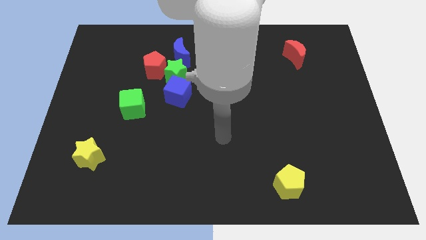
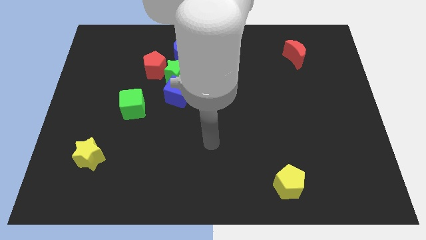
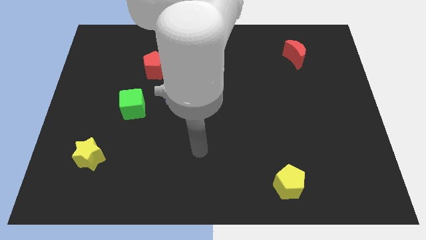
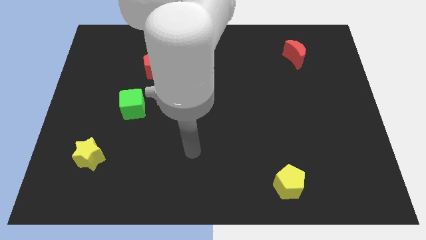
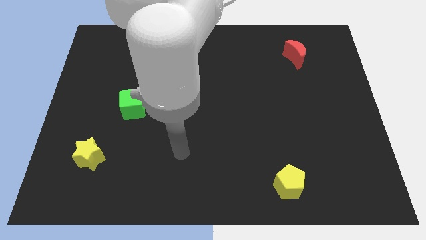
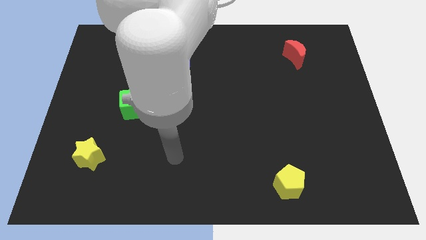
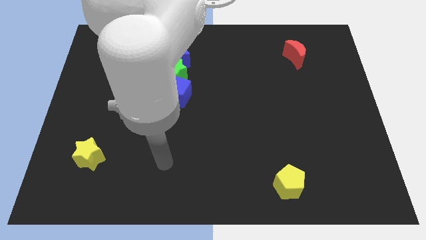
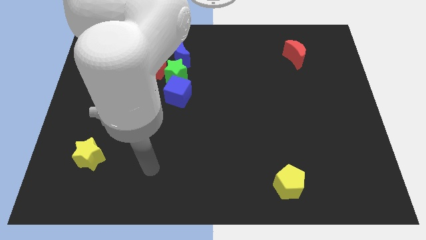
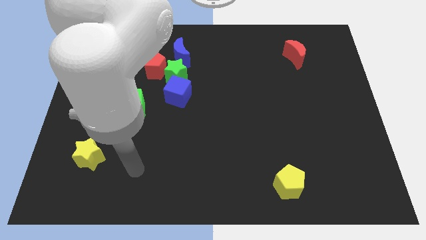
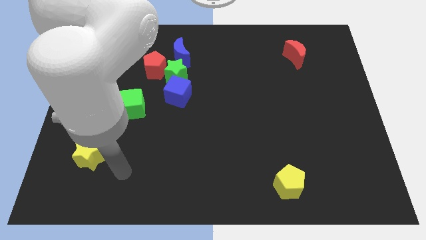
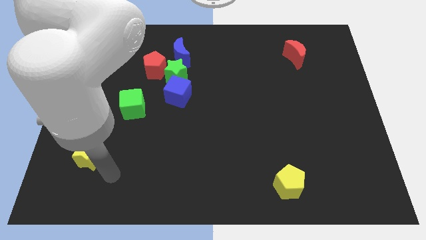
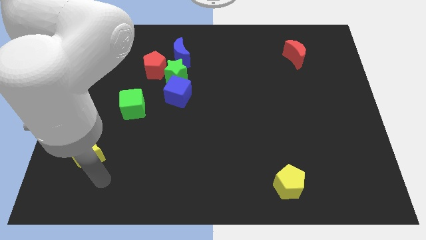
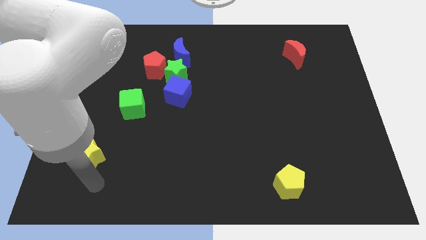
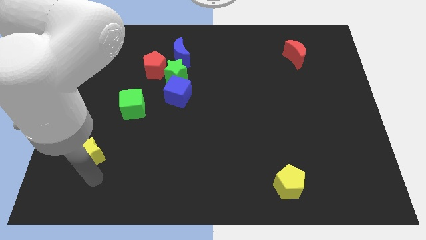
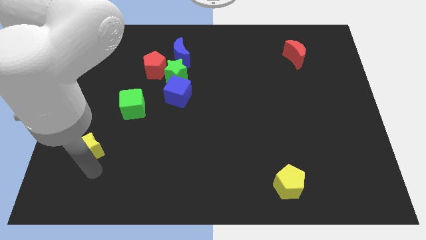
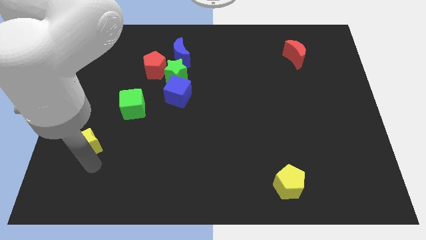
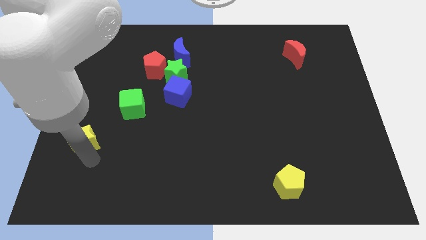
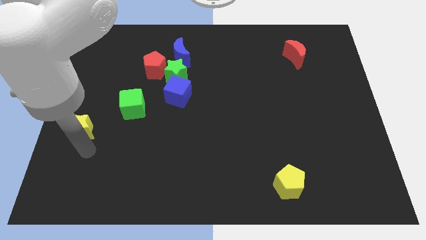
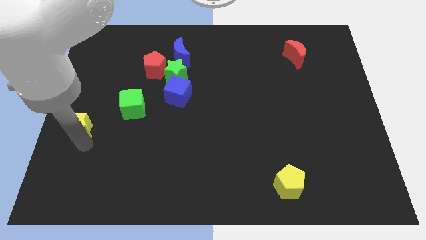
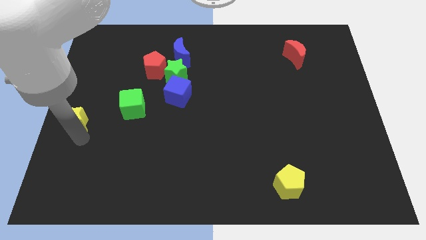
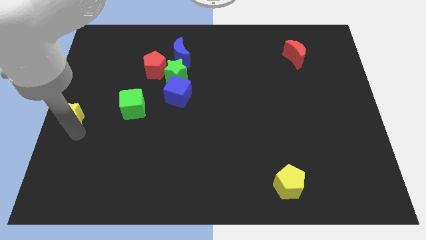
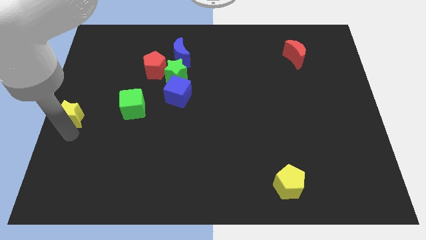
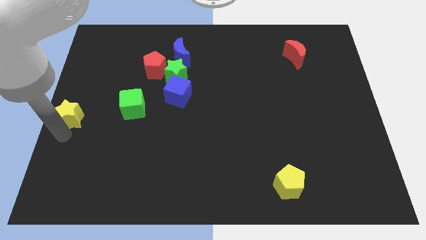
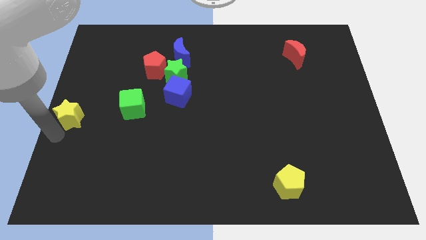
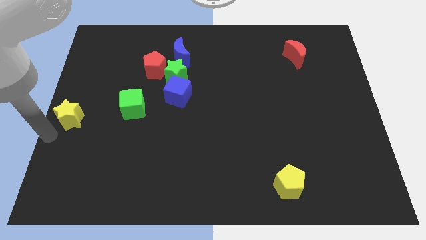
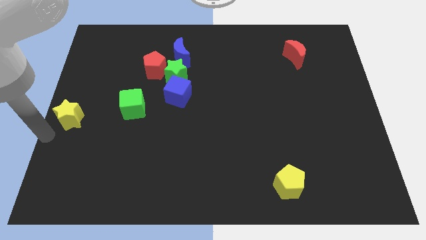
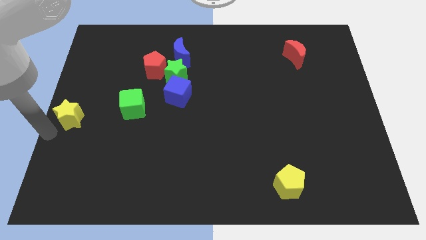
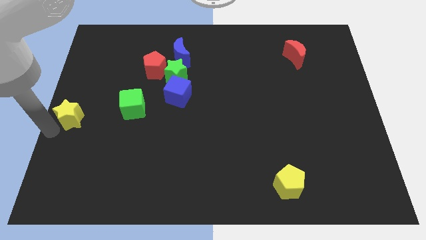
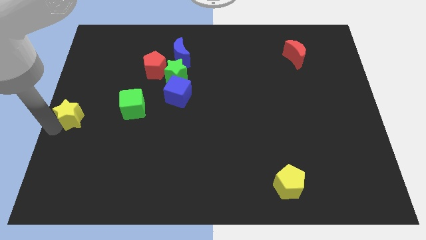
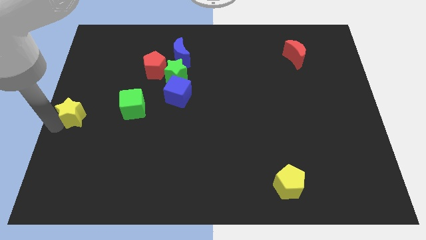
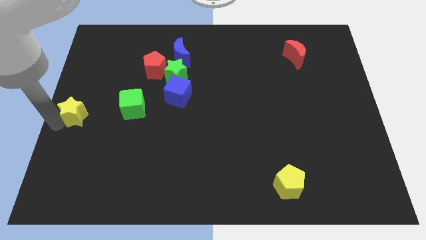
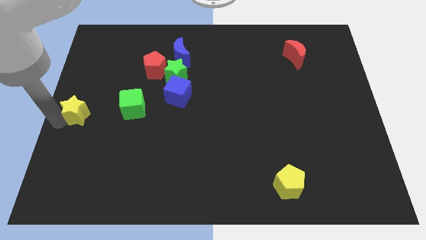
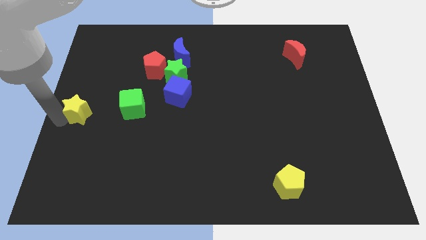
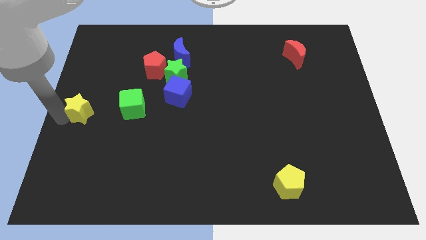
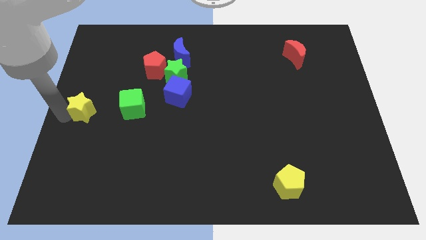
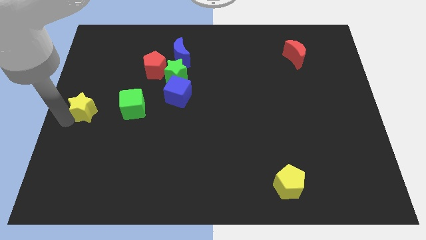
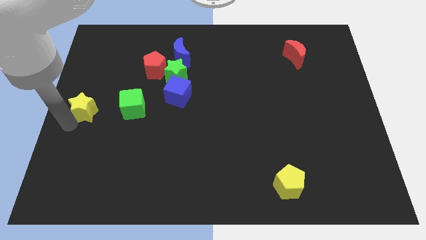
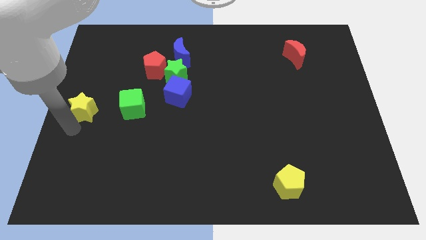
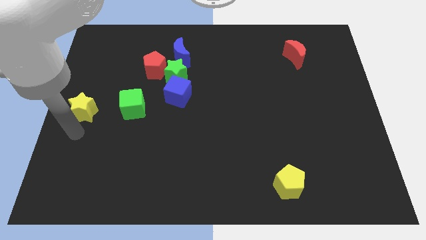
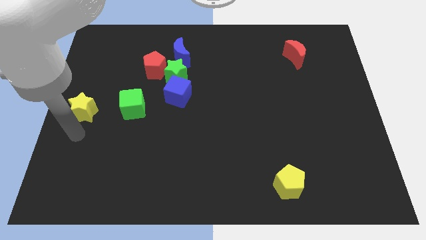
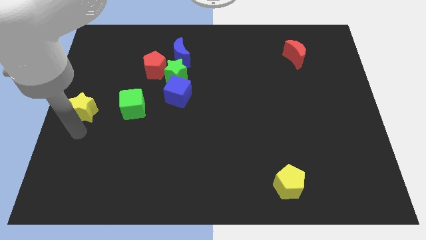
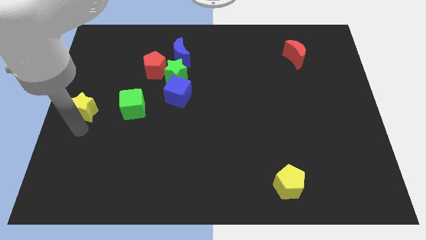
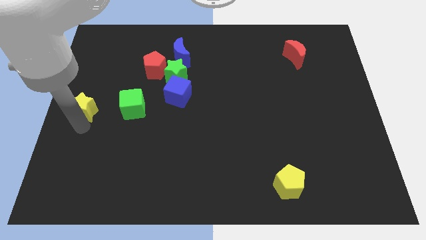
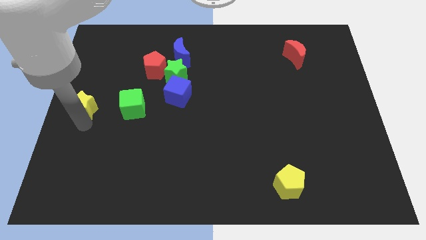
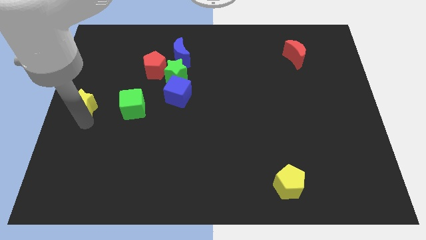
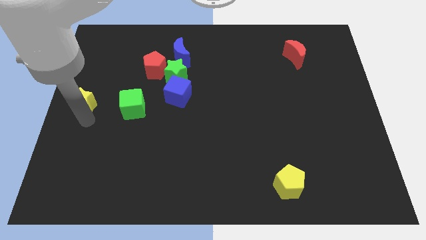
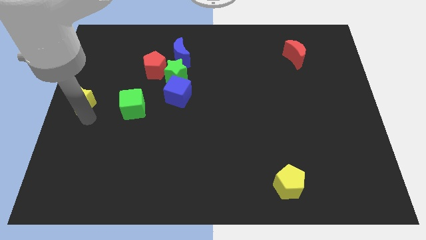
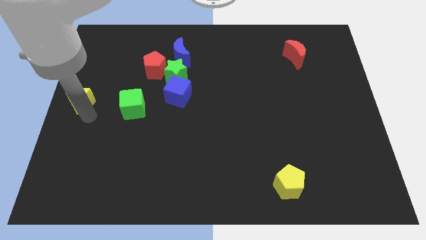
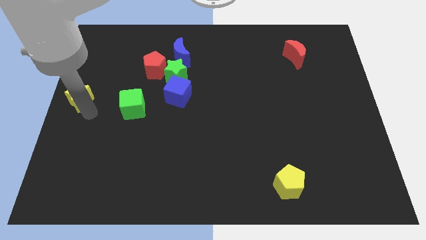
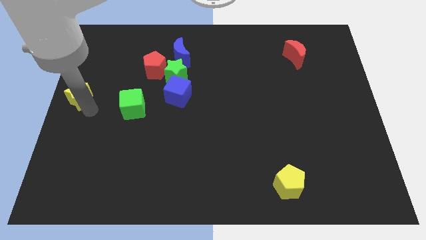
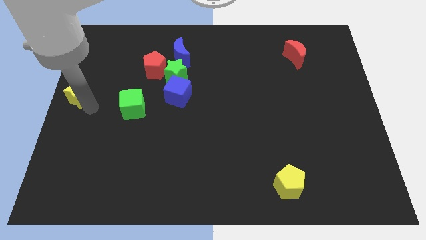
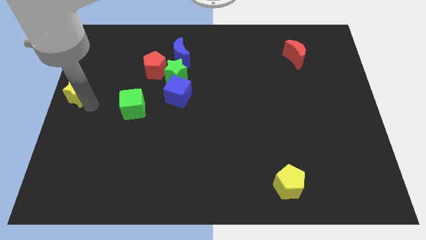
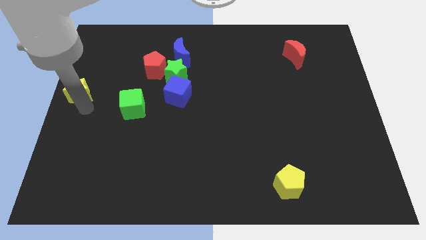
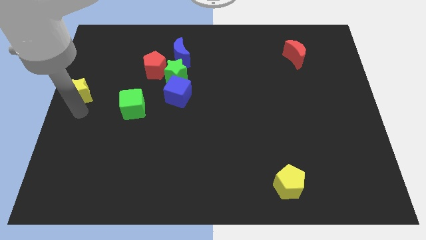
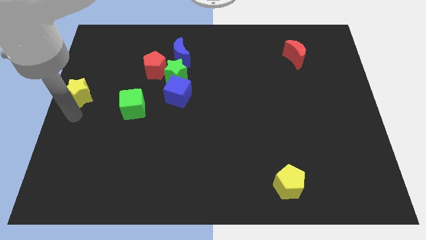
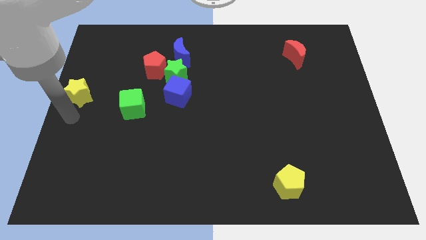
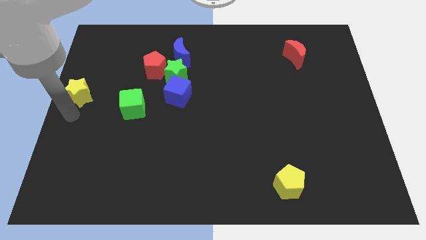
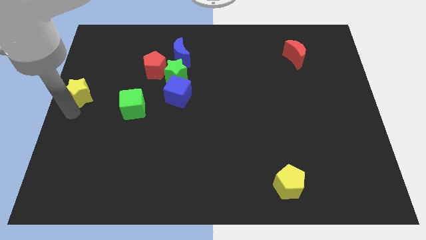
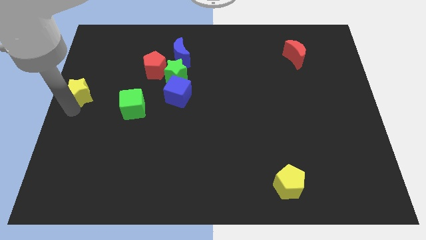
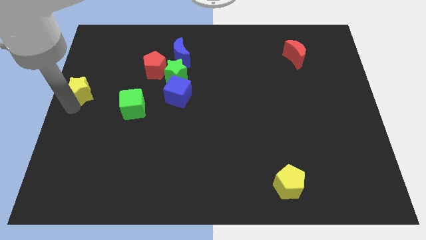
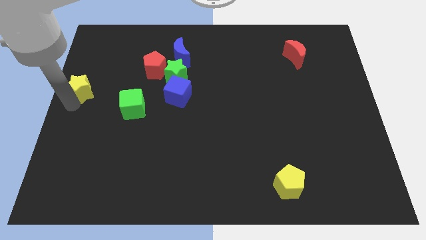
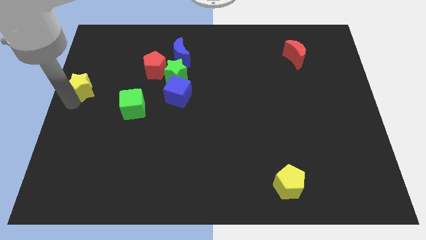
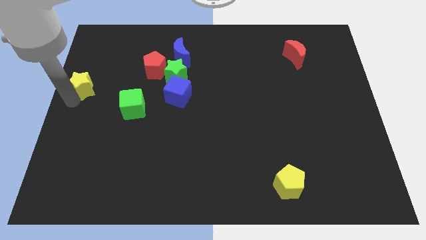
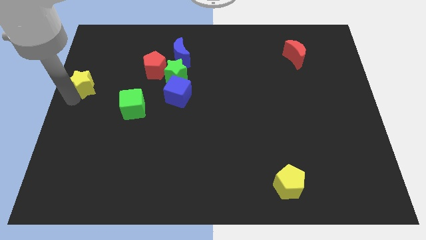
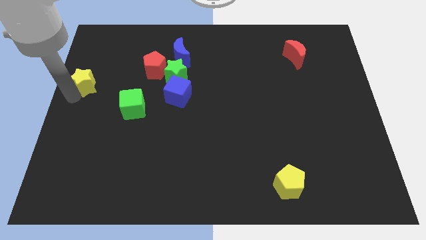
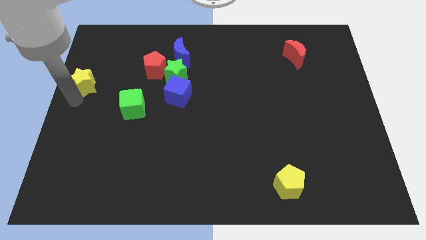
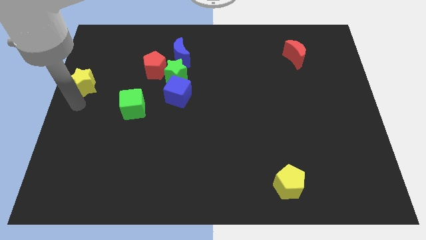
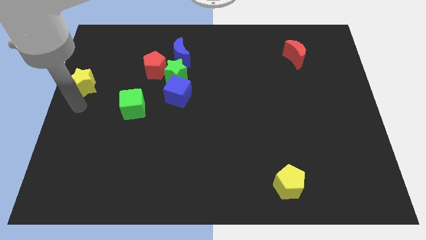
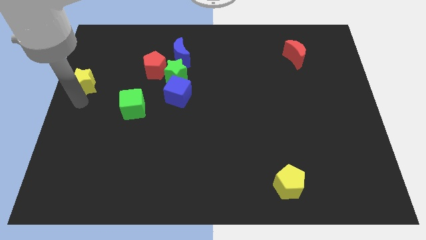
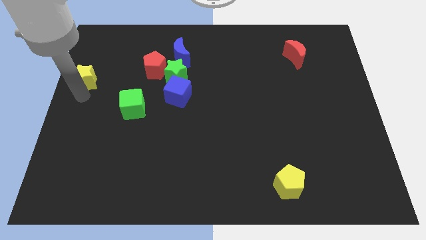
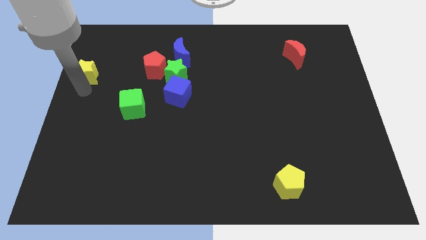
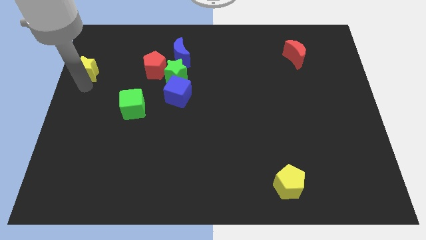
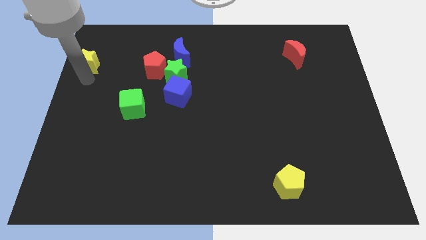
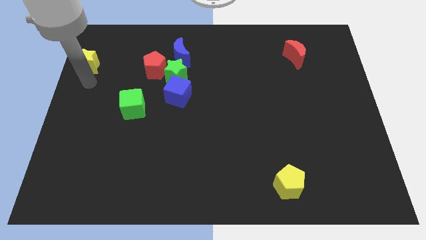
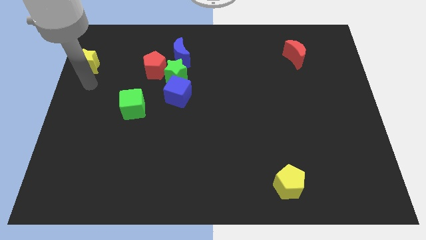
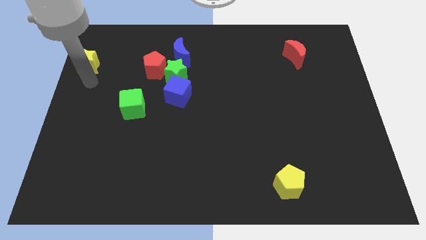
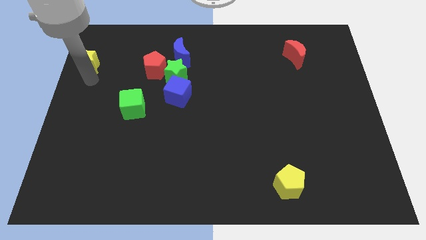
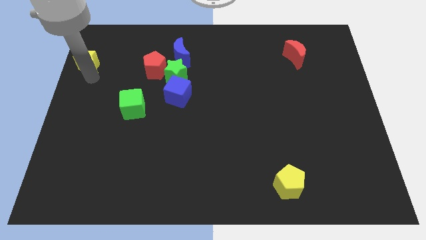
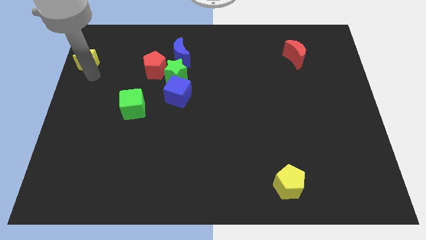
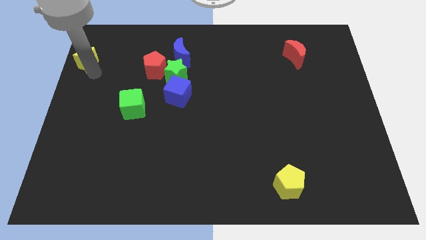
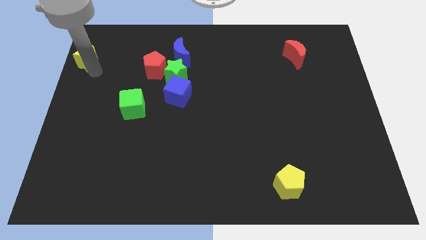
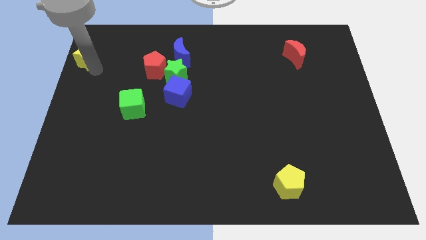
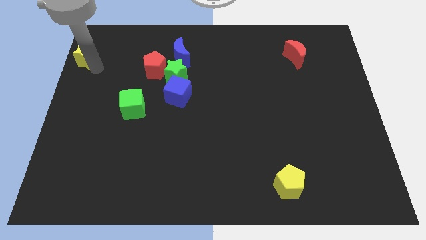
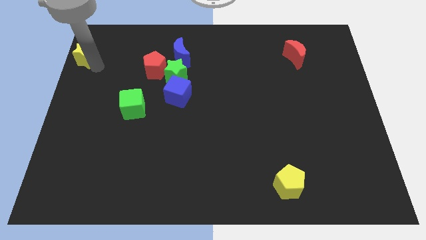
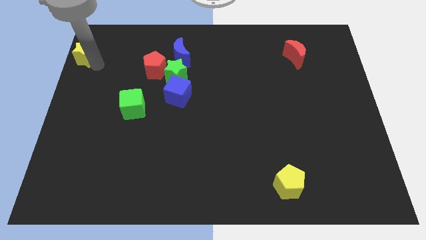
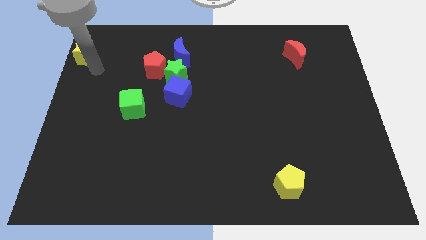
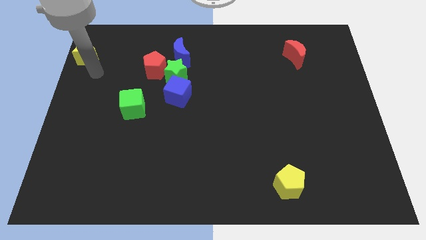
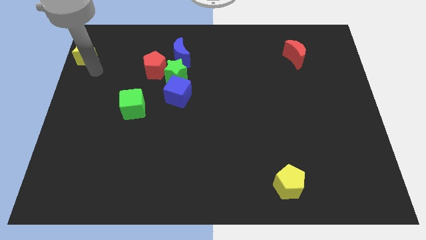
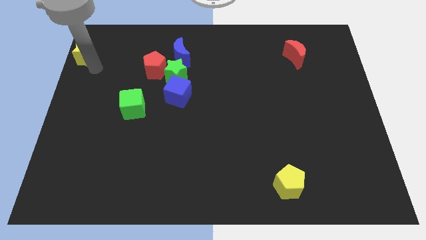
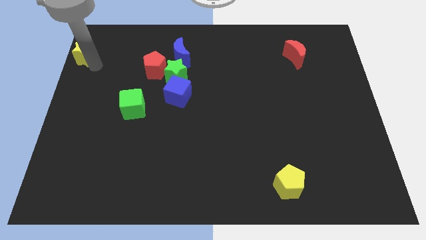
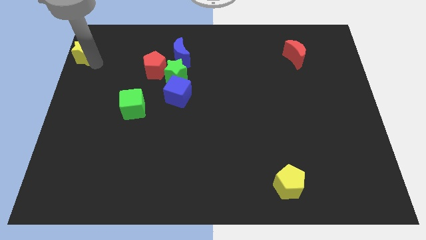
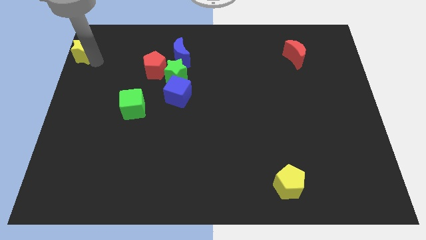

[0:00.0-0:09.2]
put the yellow star to the top left of the board
